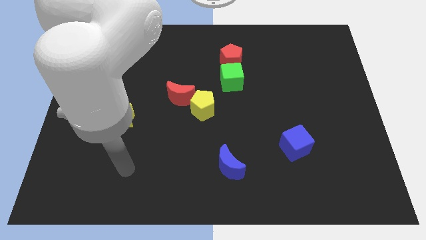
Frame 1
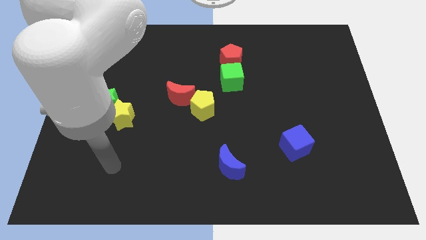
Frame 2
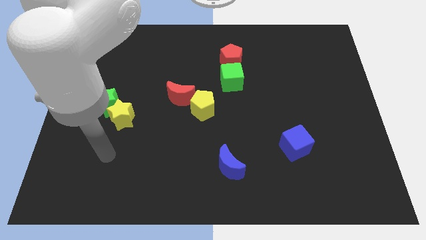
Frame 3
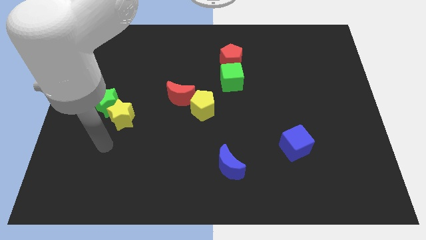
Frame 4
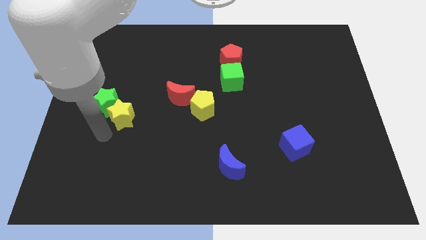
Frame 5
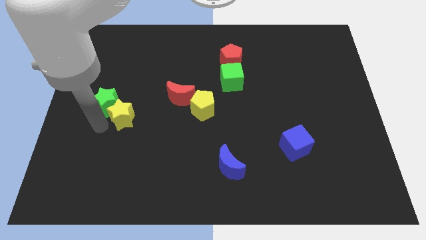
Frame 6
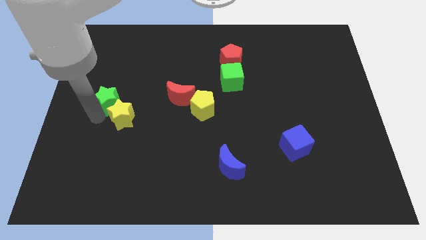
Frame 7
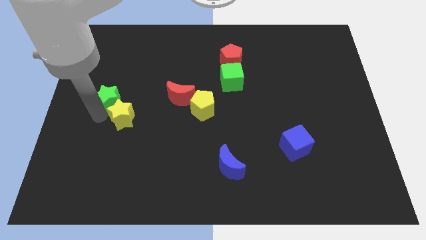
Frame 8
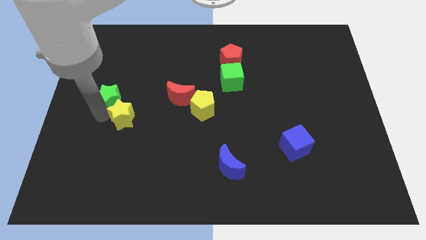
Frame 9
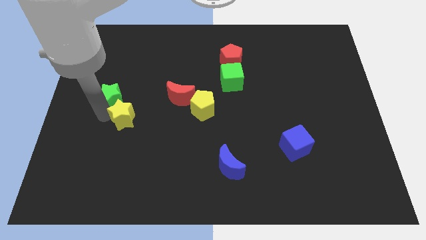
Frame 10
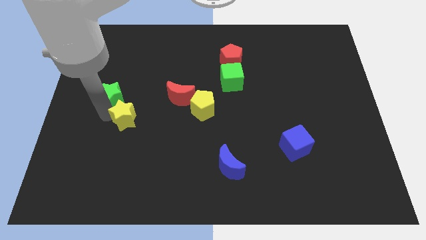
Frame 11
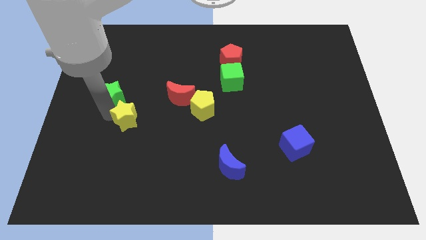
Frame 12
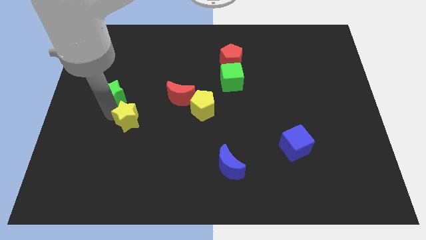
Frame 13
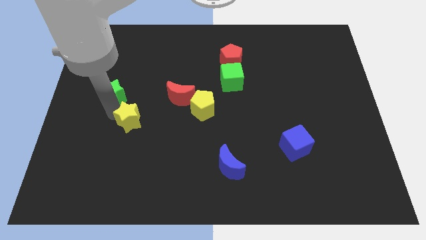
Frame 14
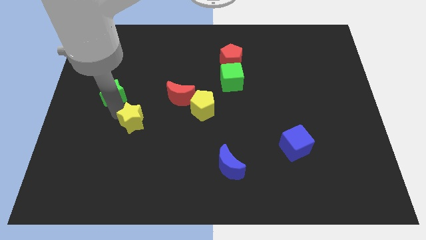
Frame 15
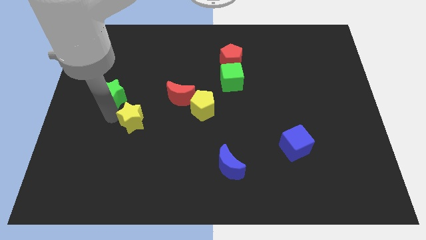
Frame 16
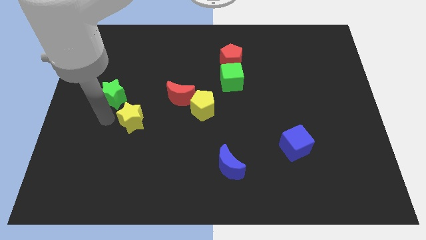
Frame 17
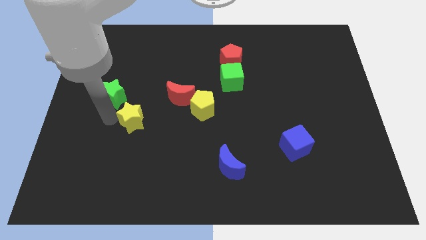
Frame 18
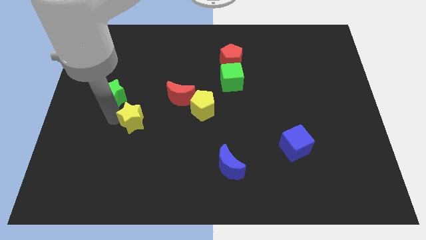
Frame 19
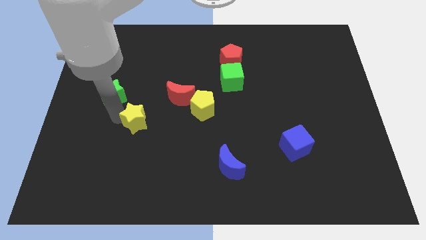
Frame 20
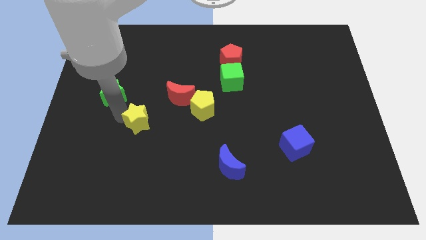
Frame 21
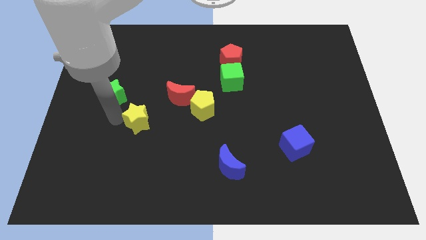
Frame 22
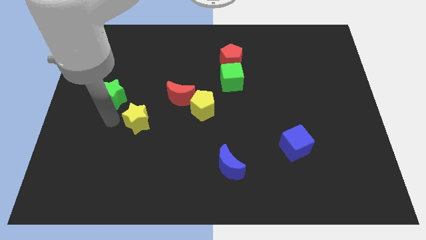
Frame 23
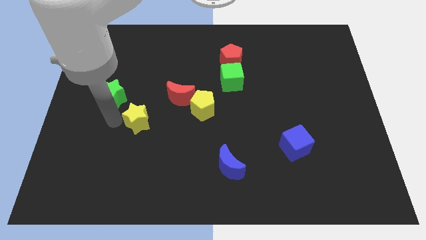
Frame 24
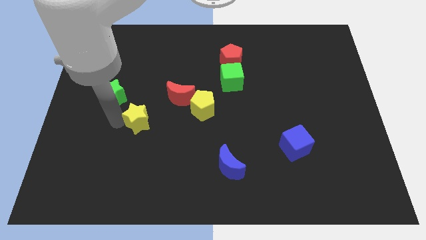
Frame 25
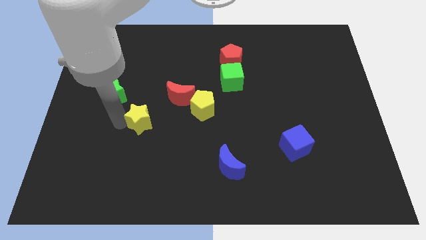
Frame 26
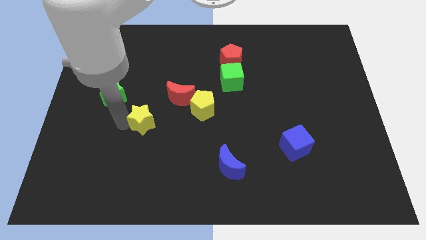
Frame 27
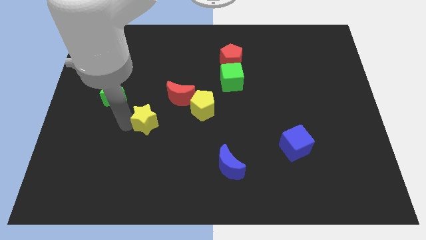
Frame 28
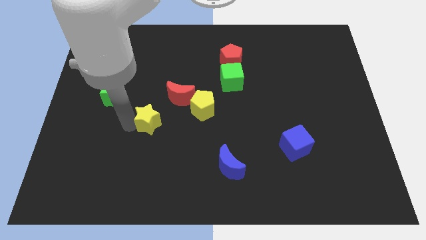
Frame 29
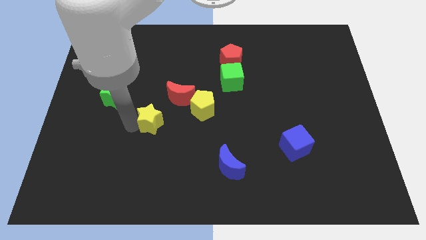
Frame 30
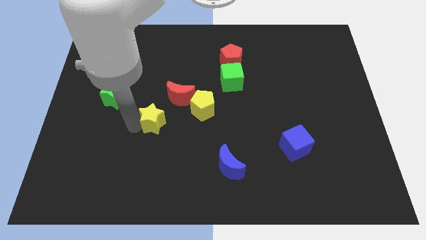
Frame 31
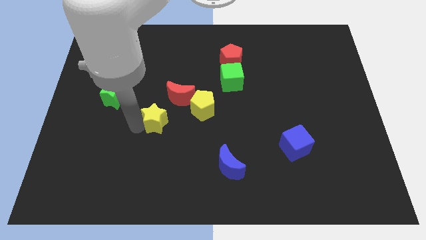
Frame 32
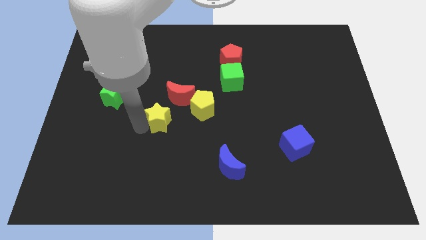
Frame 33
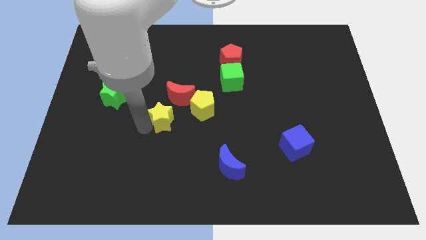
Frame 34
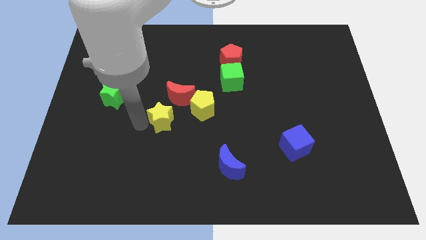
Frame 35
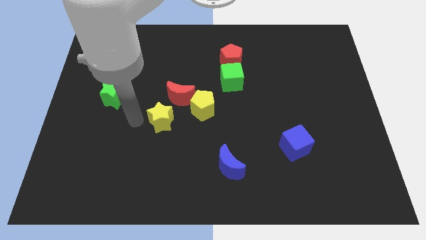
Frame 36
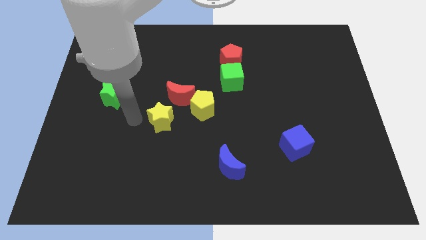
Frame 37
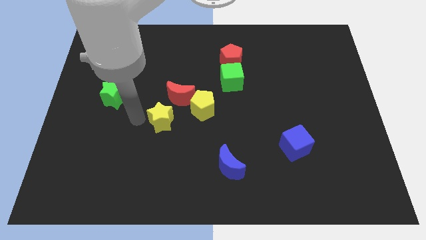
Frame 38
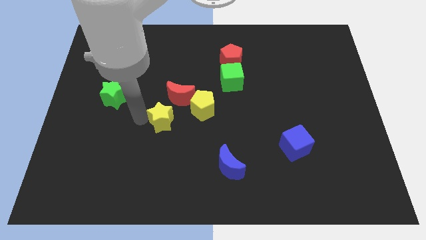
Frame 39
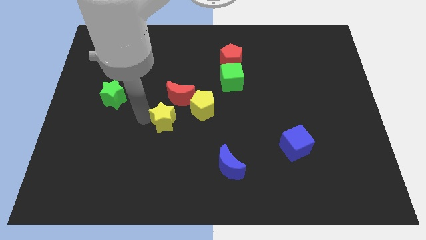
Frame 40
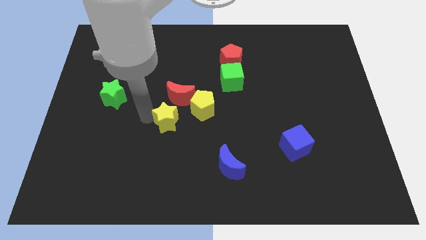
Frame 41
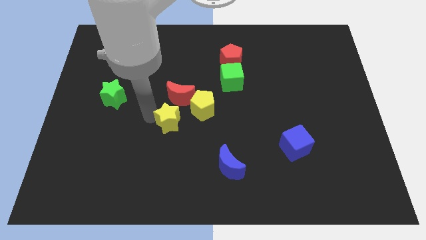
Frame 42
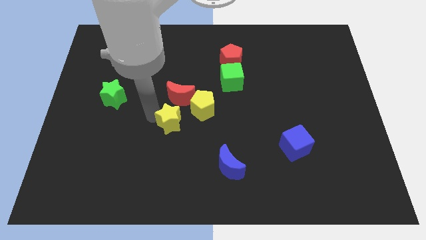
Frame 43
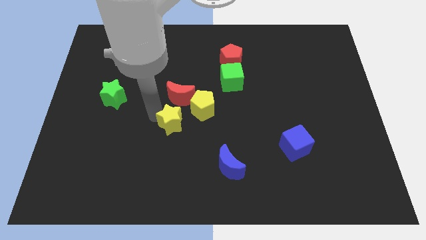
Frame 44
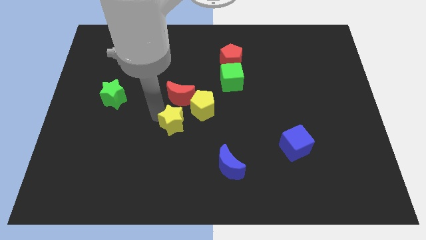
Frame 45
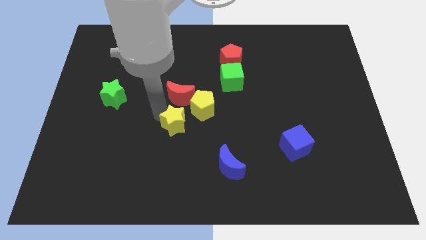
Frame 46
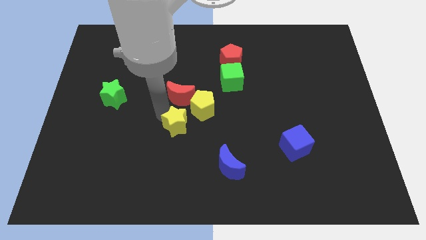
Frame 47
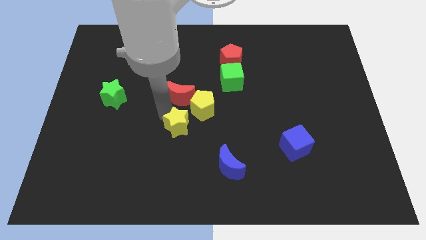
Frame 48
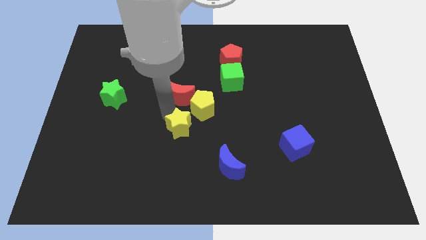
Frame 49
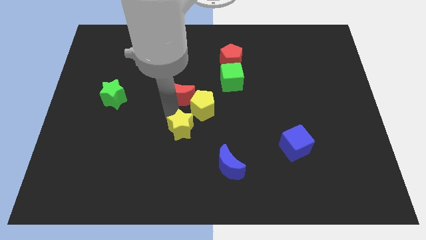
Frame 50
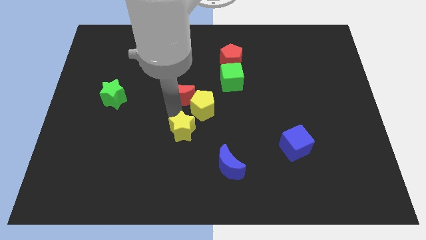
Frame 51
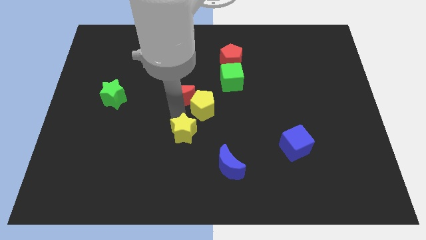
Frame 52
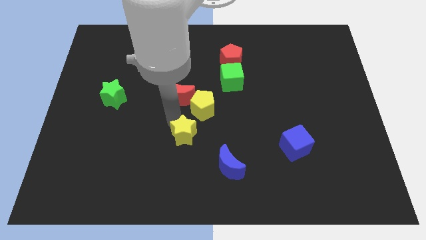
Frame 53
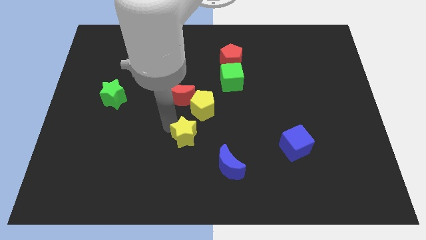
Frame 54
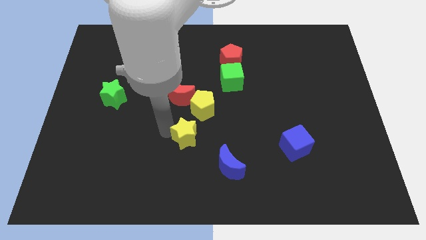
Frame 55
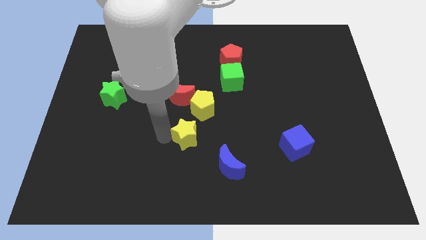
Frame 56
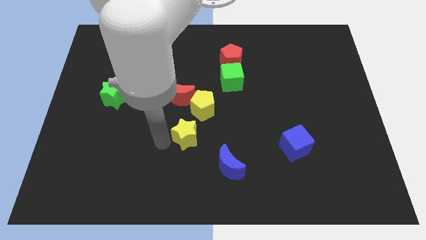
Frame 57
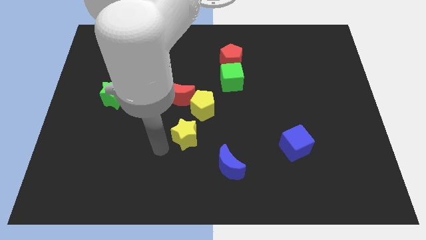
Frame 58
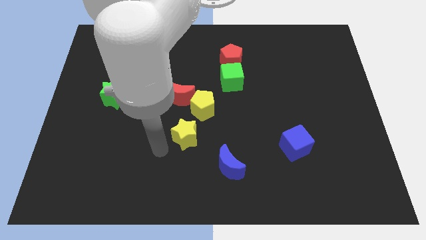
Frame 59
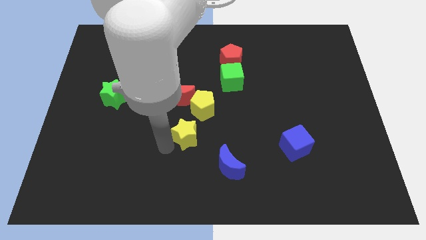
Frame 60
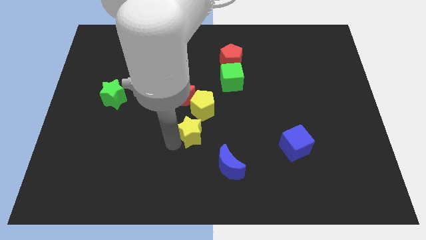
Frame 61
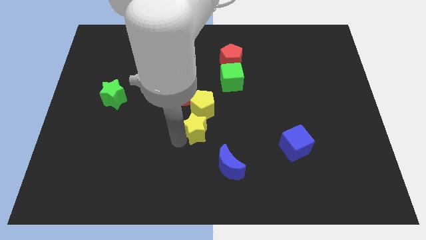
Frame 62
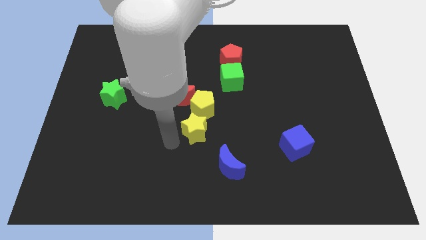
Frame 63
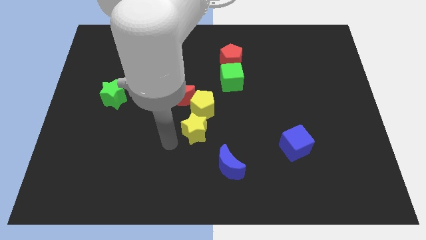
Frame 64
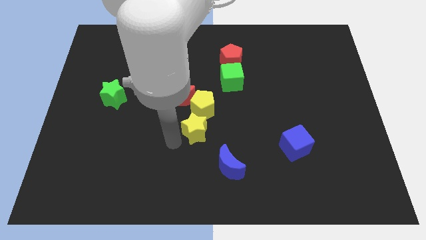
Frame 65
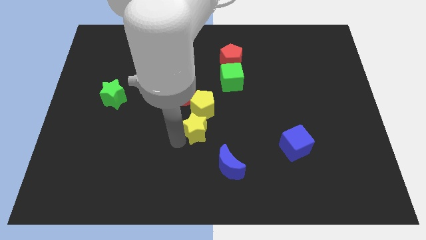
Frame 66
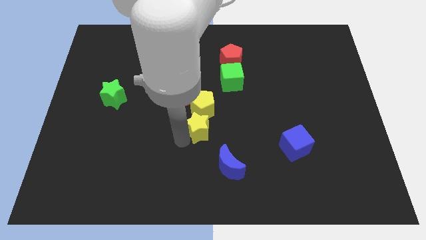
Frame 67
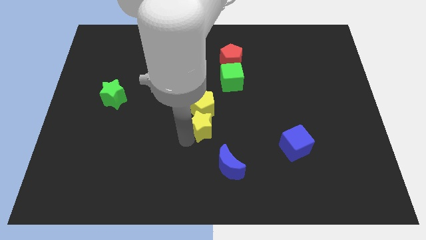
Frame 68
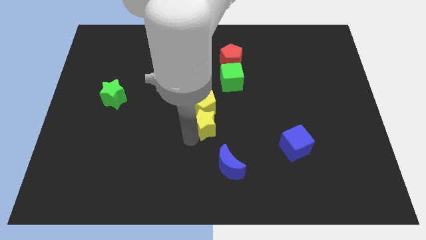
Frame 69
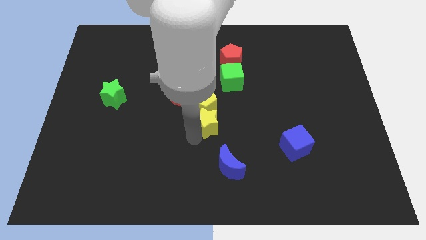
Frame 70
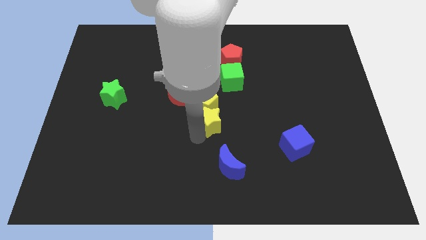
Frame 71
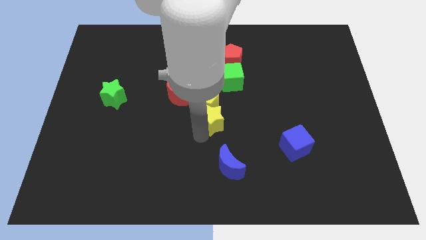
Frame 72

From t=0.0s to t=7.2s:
move the yellow star to the bottom of the green cube
